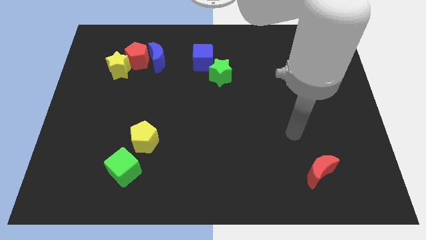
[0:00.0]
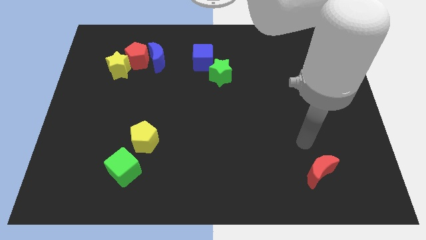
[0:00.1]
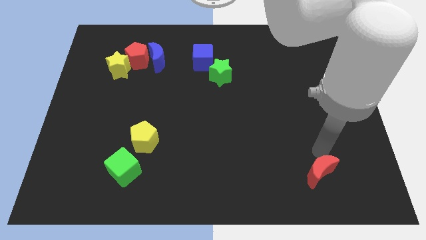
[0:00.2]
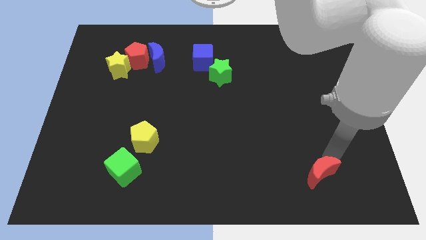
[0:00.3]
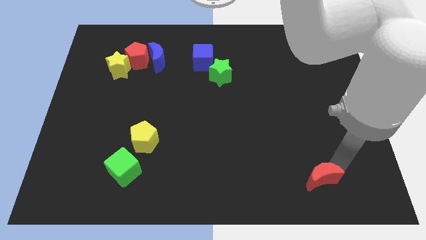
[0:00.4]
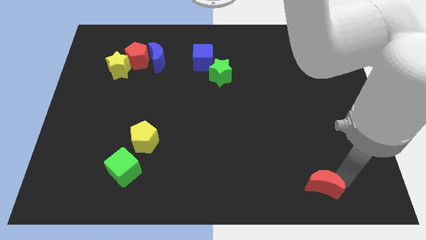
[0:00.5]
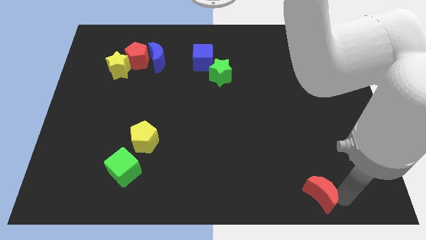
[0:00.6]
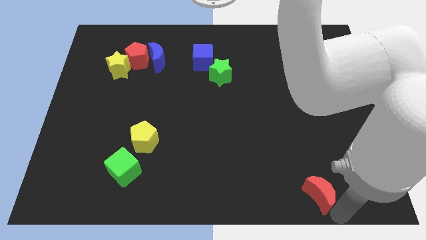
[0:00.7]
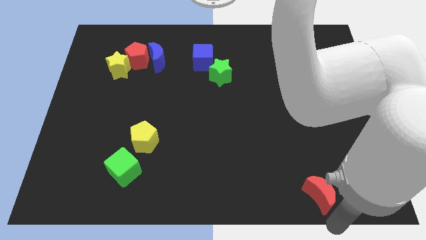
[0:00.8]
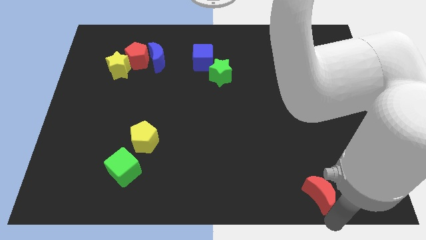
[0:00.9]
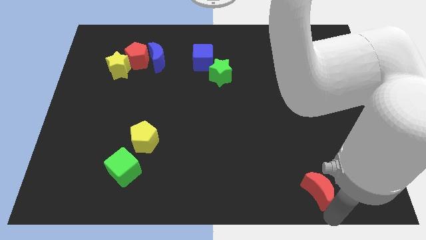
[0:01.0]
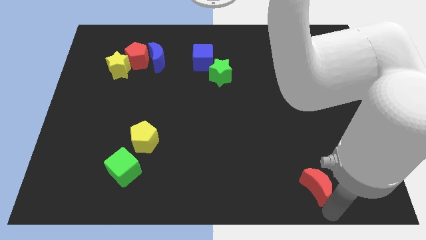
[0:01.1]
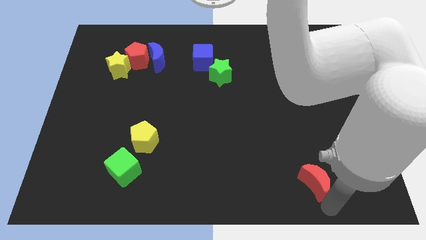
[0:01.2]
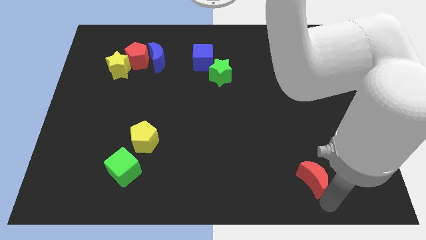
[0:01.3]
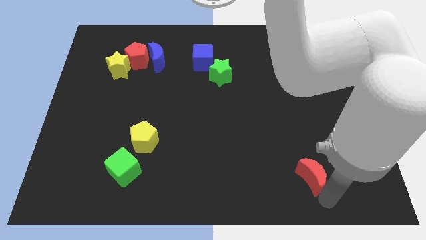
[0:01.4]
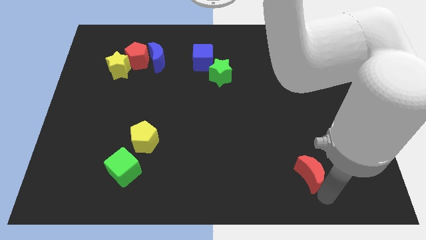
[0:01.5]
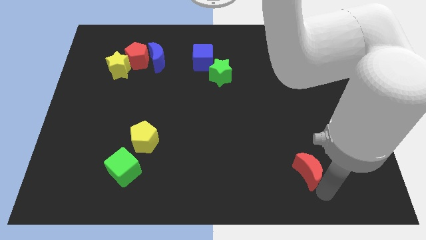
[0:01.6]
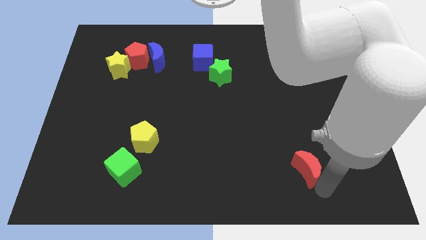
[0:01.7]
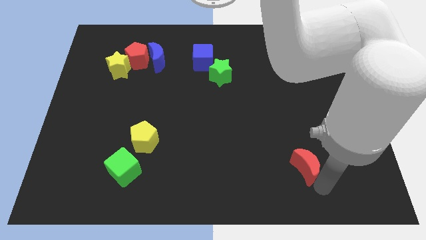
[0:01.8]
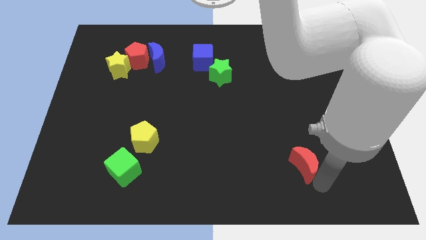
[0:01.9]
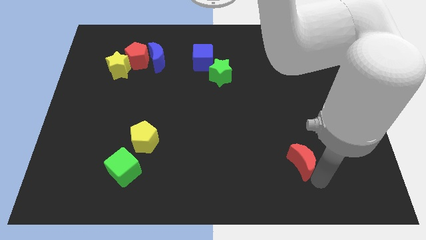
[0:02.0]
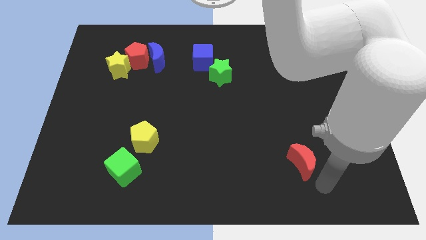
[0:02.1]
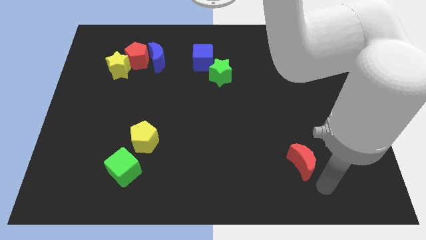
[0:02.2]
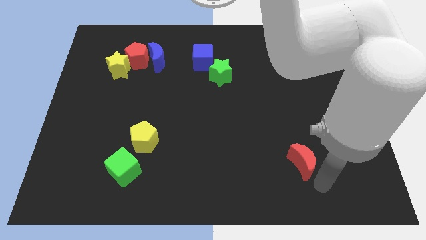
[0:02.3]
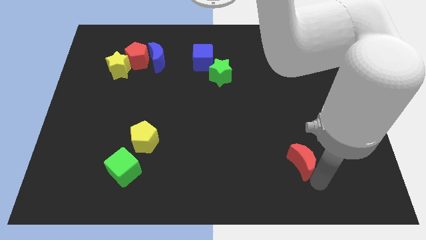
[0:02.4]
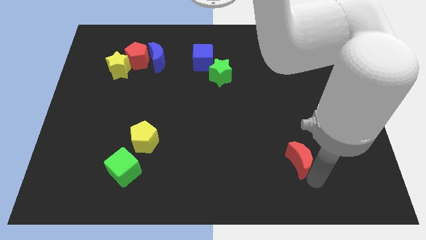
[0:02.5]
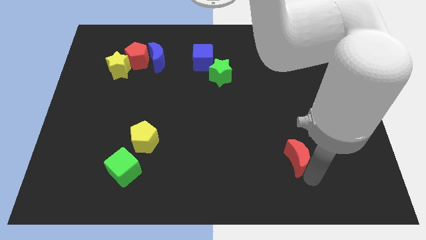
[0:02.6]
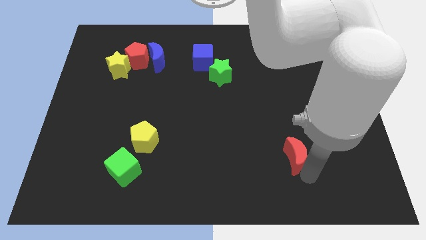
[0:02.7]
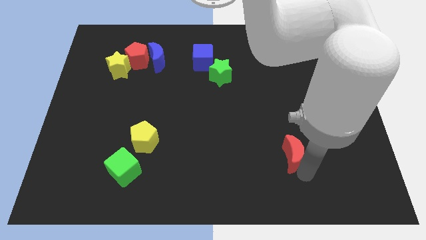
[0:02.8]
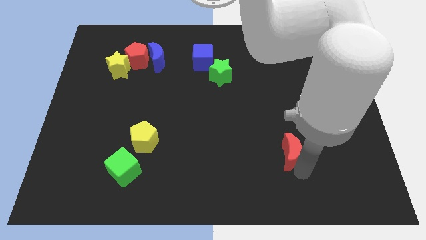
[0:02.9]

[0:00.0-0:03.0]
move the red moon up and to the left diagonally a little bit

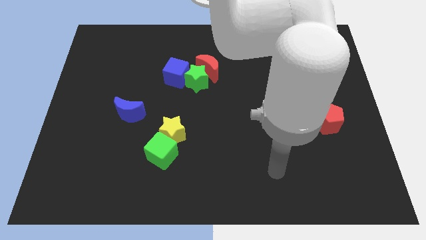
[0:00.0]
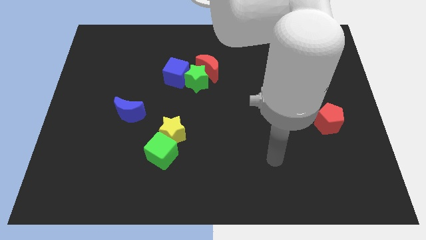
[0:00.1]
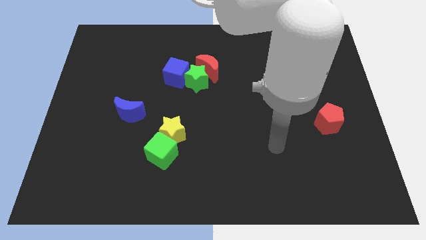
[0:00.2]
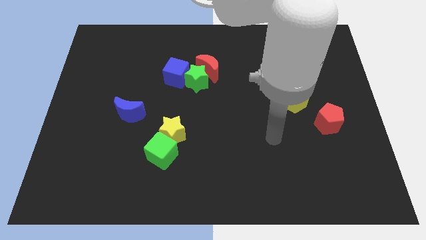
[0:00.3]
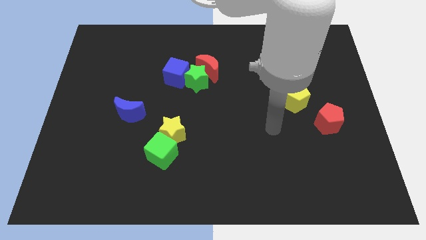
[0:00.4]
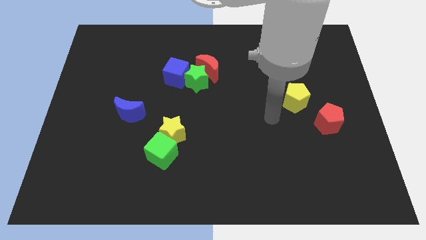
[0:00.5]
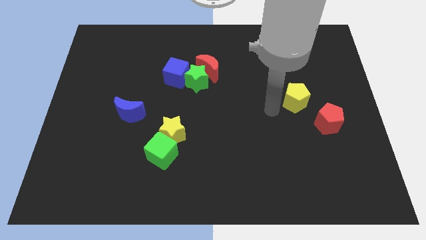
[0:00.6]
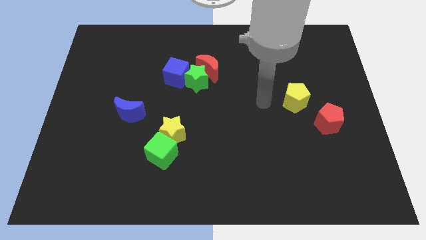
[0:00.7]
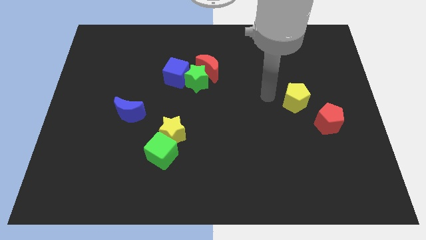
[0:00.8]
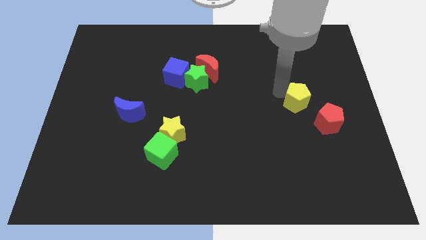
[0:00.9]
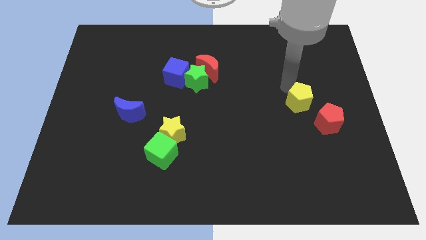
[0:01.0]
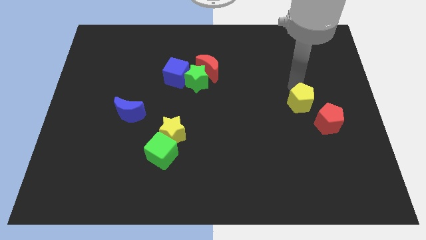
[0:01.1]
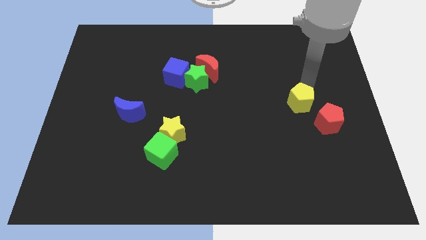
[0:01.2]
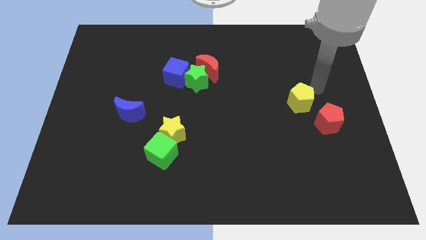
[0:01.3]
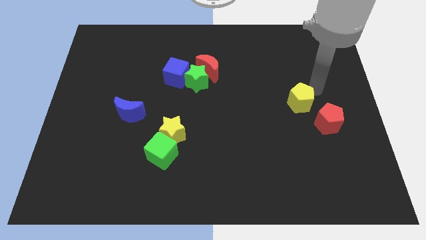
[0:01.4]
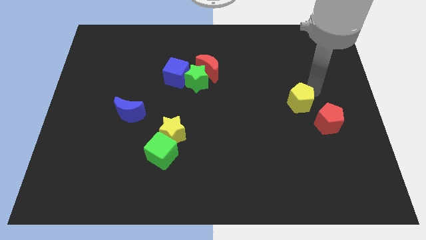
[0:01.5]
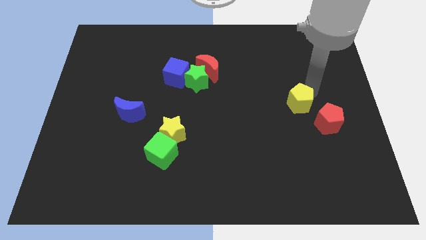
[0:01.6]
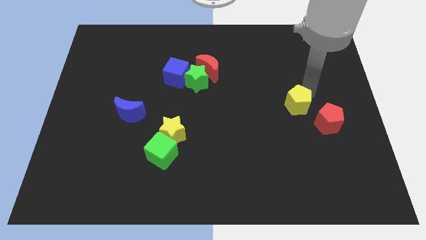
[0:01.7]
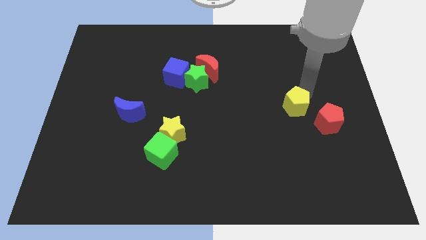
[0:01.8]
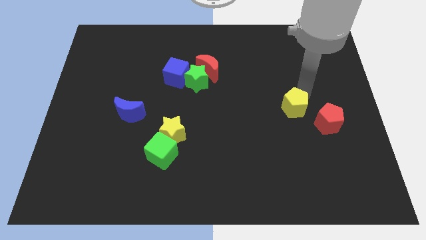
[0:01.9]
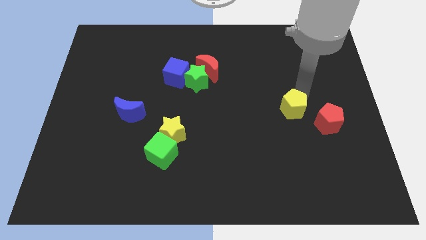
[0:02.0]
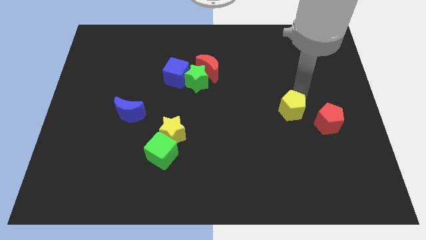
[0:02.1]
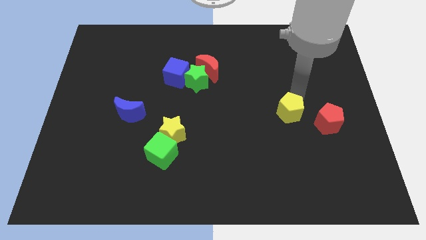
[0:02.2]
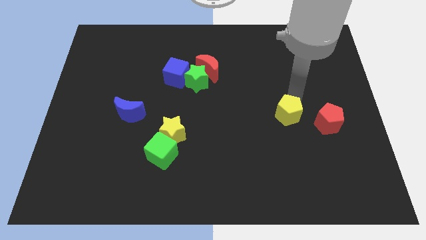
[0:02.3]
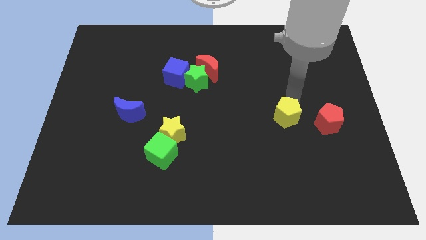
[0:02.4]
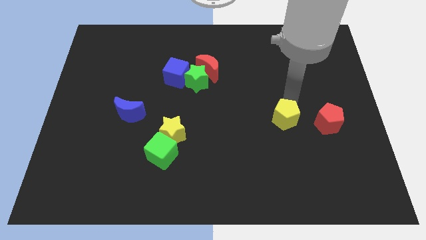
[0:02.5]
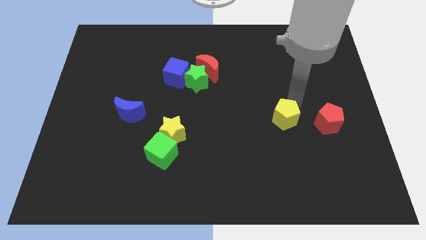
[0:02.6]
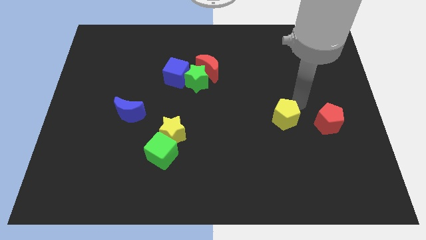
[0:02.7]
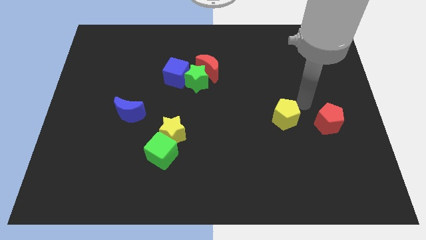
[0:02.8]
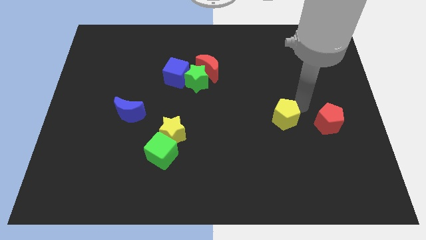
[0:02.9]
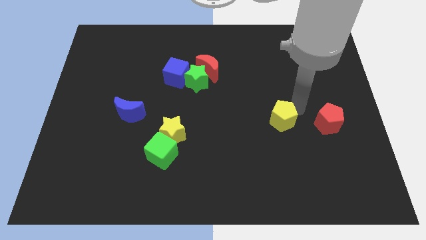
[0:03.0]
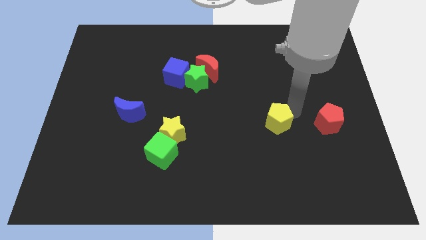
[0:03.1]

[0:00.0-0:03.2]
slightly slide the yellow pentagon downwards and to the left

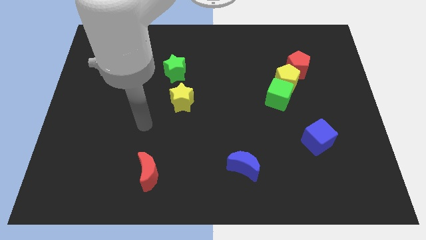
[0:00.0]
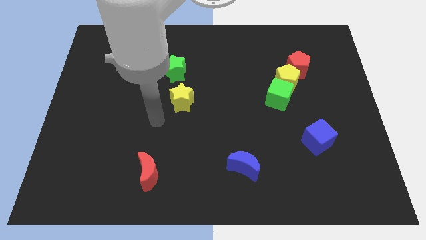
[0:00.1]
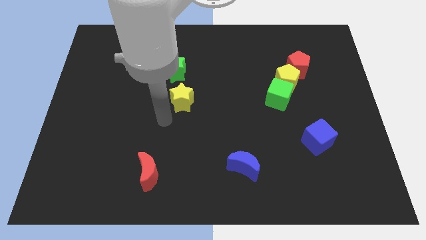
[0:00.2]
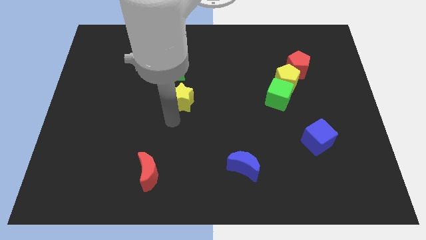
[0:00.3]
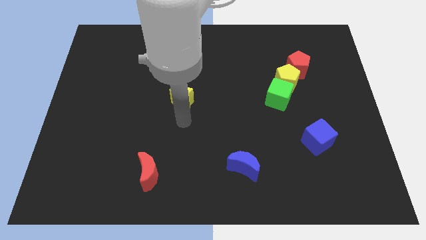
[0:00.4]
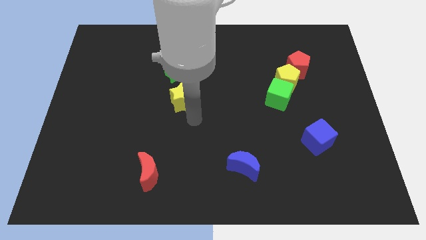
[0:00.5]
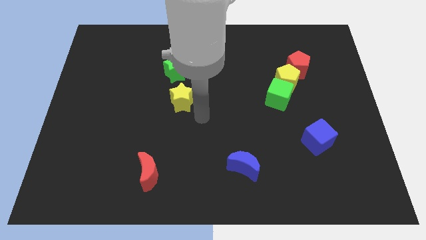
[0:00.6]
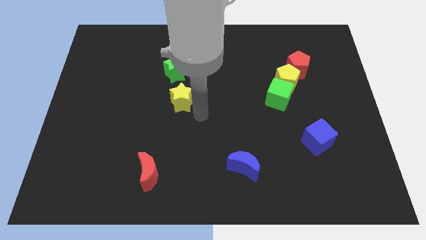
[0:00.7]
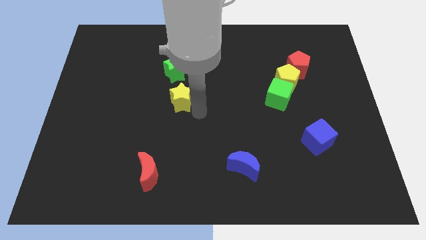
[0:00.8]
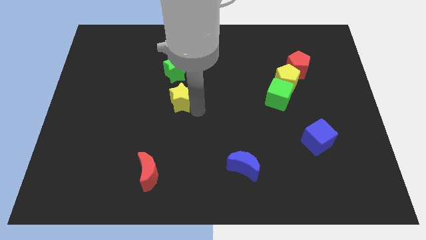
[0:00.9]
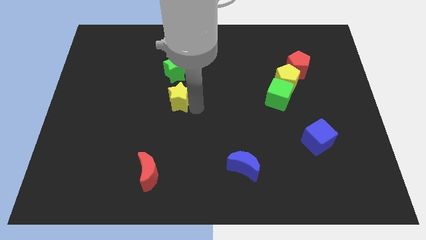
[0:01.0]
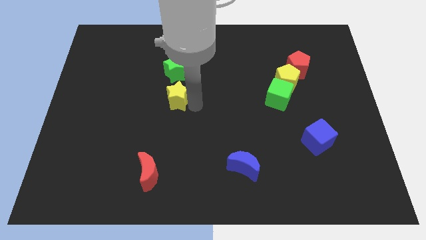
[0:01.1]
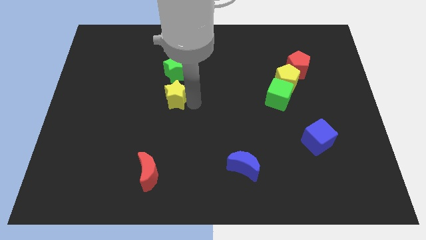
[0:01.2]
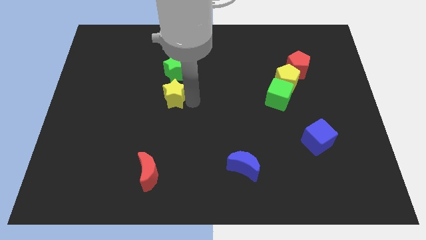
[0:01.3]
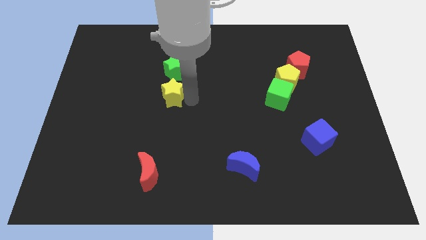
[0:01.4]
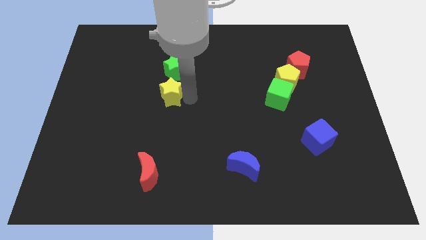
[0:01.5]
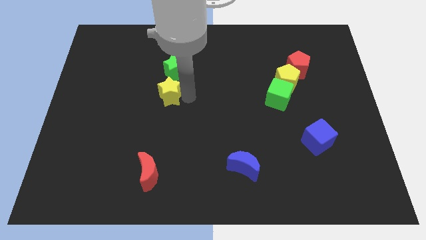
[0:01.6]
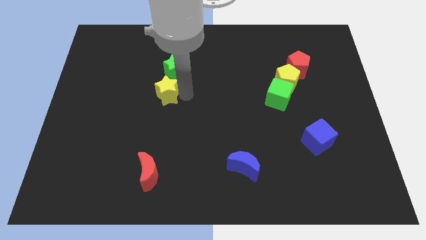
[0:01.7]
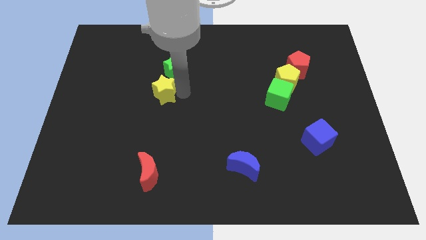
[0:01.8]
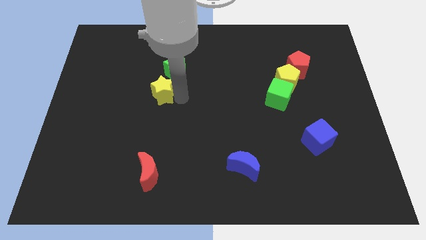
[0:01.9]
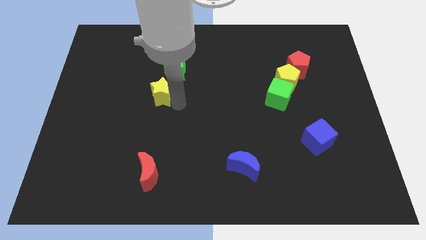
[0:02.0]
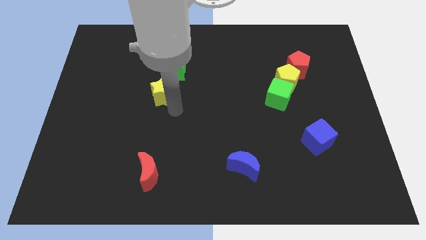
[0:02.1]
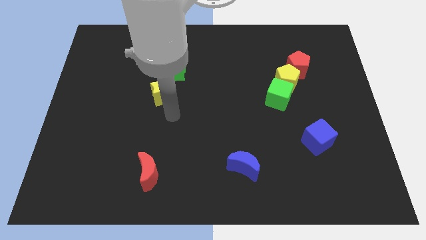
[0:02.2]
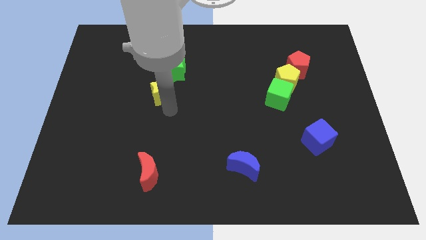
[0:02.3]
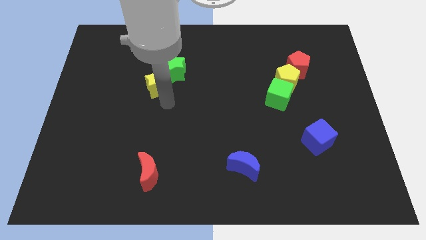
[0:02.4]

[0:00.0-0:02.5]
slide the yellow star diagonally upwards and to the left slightly
